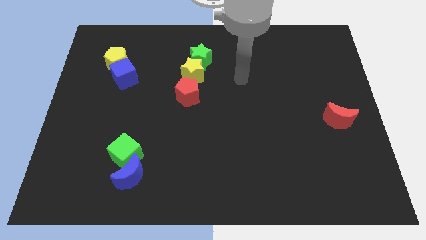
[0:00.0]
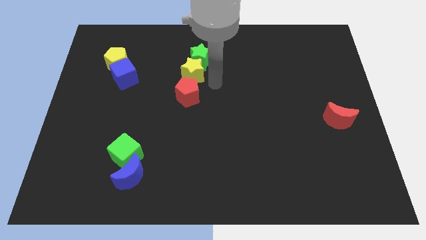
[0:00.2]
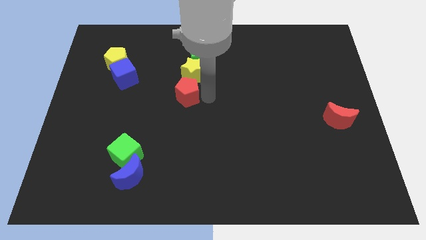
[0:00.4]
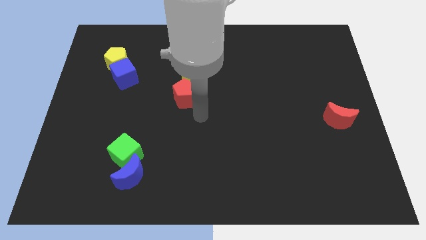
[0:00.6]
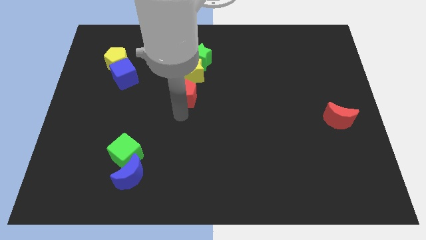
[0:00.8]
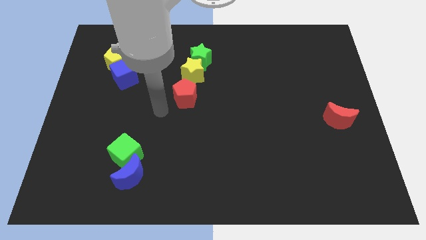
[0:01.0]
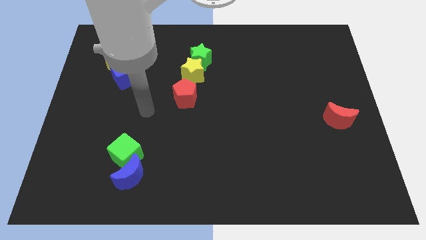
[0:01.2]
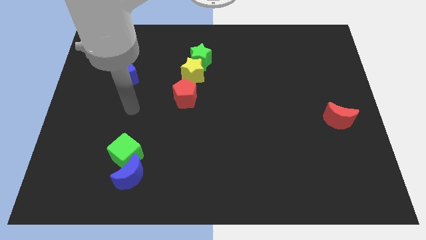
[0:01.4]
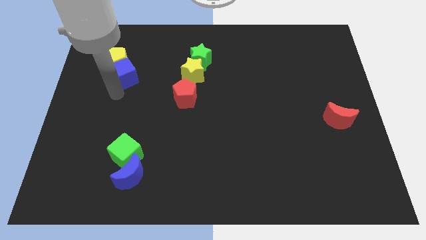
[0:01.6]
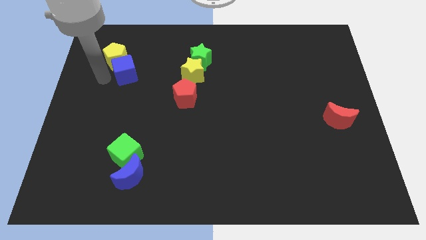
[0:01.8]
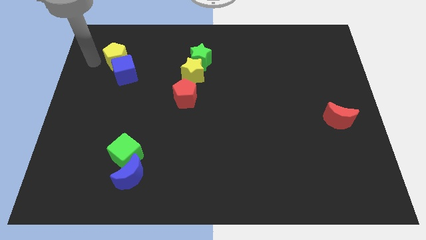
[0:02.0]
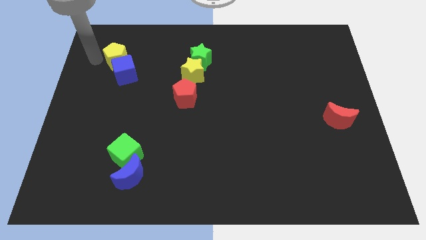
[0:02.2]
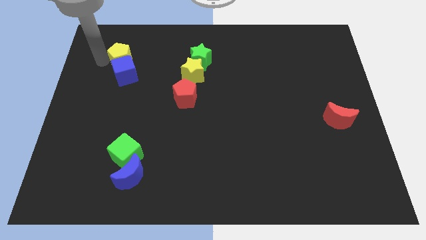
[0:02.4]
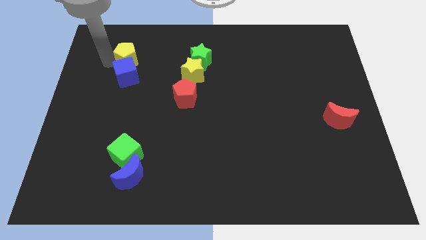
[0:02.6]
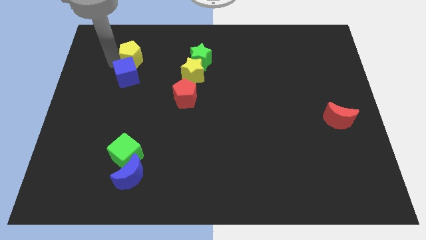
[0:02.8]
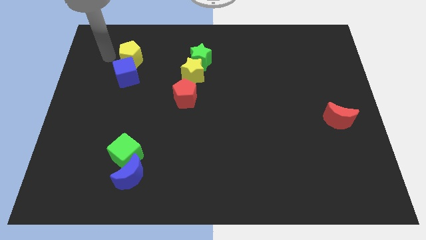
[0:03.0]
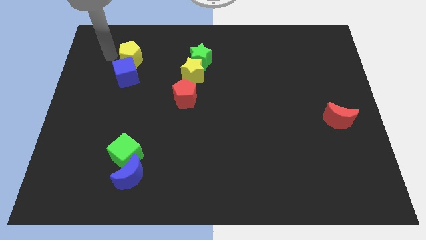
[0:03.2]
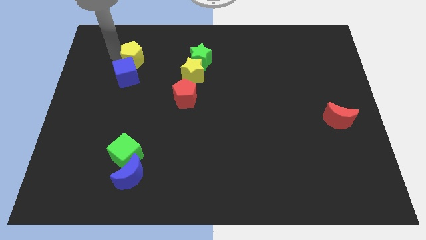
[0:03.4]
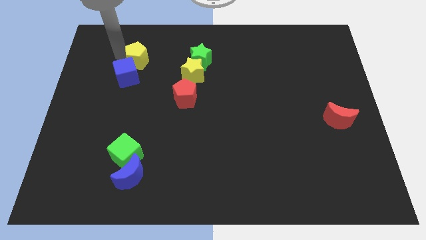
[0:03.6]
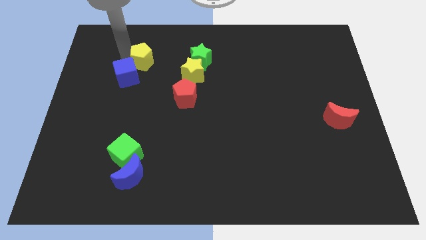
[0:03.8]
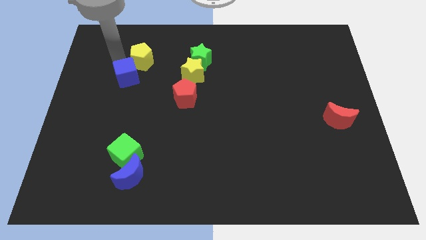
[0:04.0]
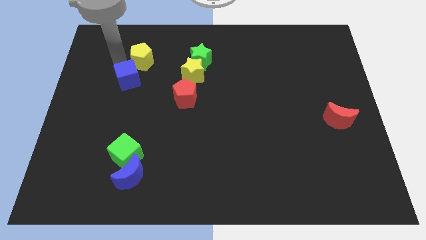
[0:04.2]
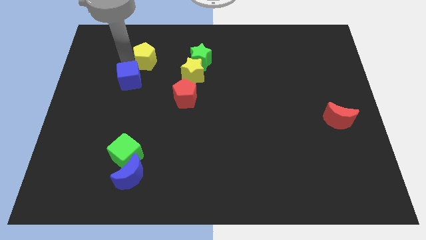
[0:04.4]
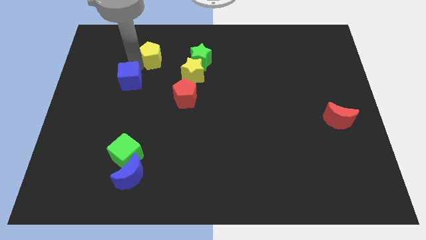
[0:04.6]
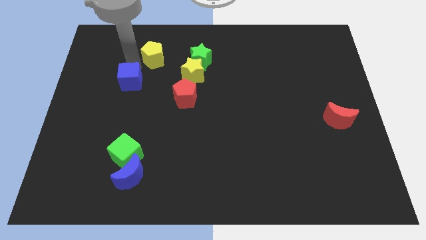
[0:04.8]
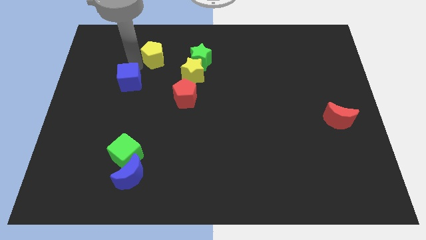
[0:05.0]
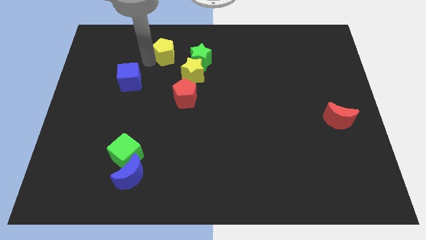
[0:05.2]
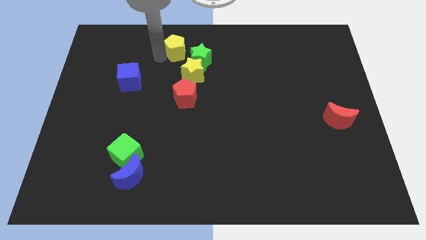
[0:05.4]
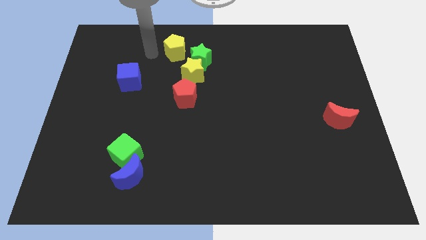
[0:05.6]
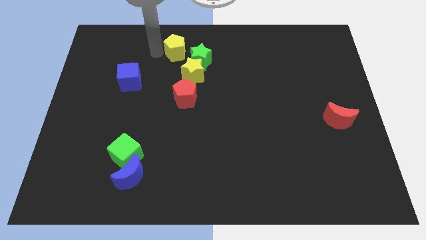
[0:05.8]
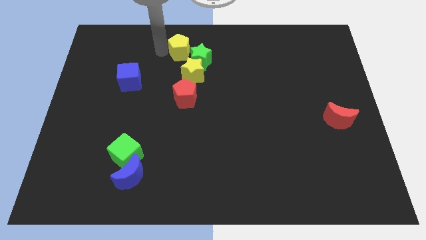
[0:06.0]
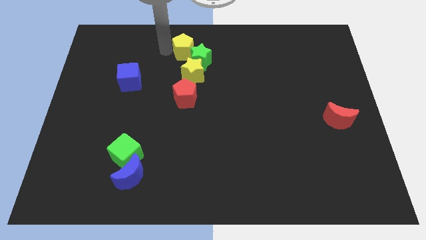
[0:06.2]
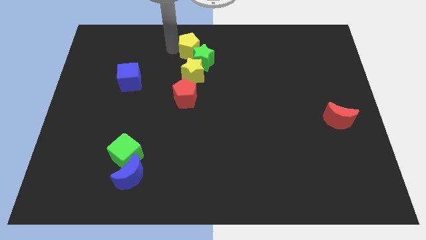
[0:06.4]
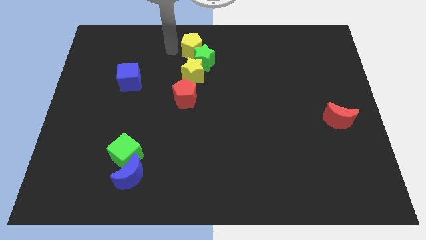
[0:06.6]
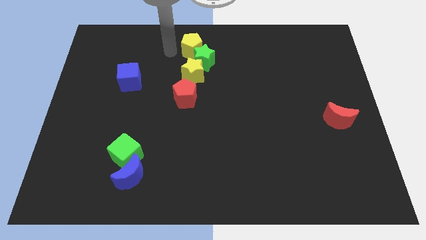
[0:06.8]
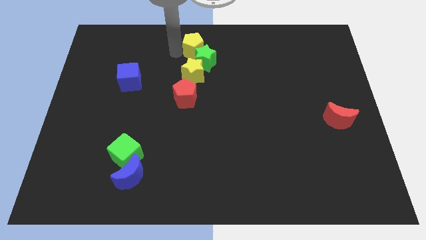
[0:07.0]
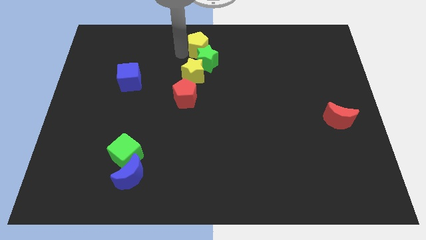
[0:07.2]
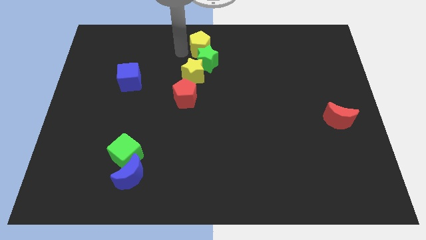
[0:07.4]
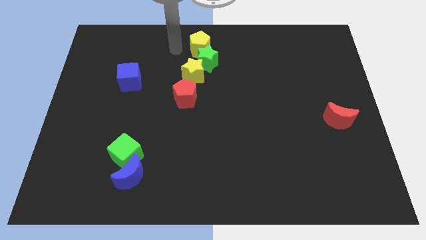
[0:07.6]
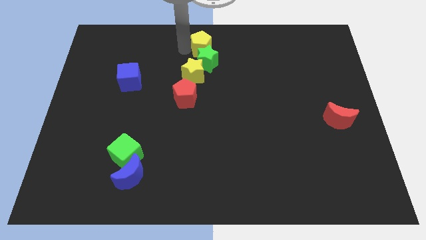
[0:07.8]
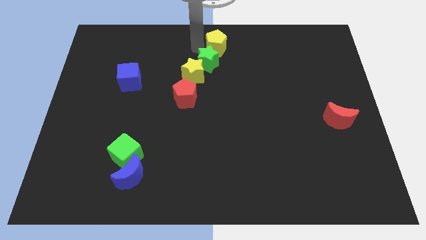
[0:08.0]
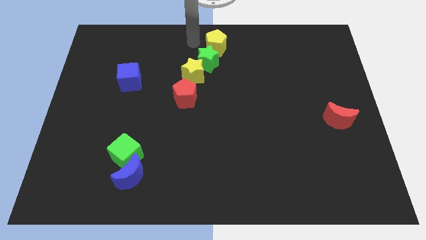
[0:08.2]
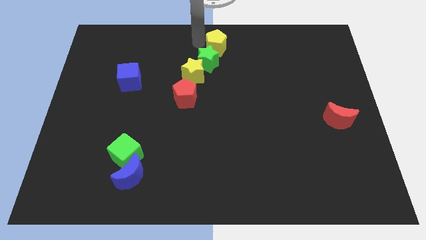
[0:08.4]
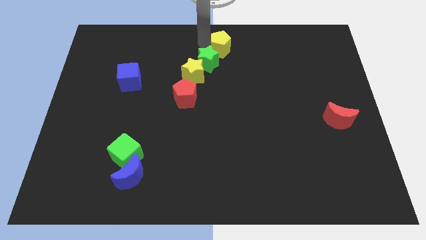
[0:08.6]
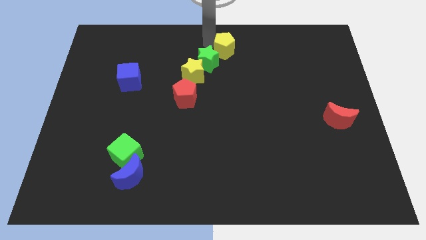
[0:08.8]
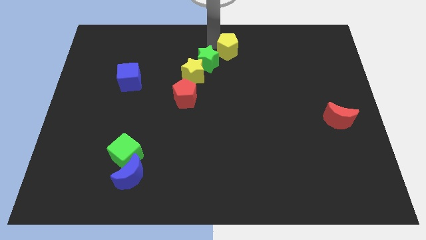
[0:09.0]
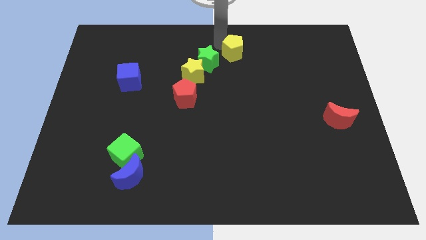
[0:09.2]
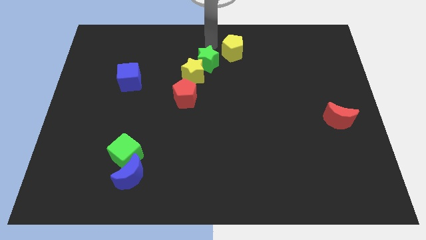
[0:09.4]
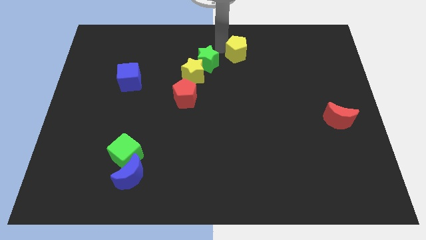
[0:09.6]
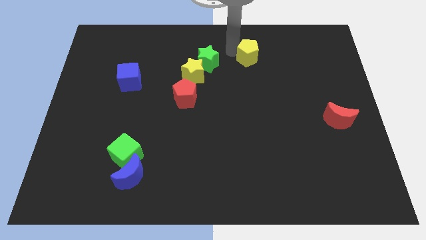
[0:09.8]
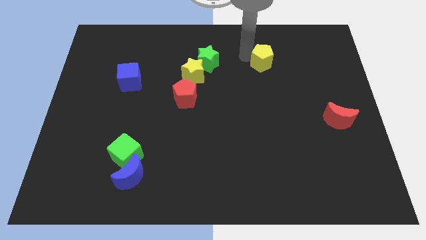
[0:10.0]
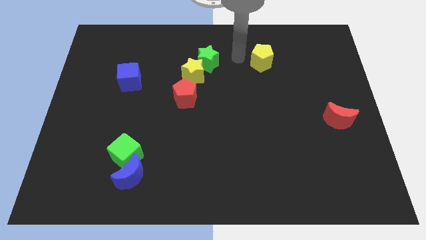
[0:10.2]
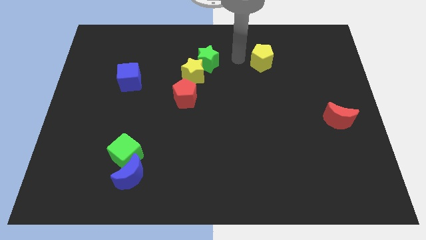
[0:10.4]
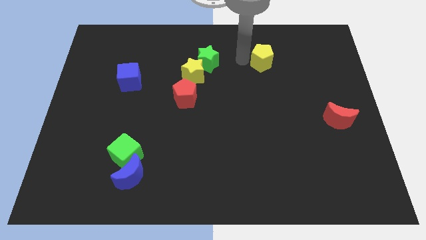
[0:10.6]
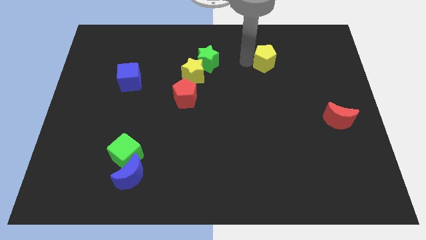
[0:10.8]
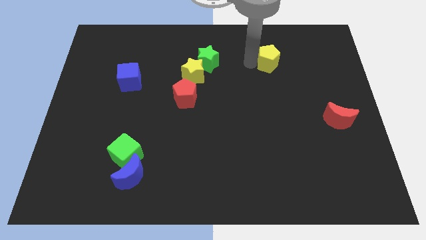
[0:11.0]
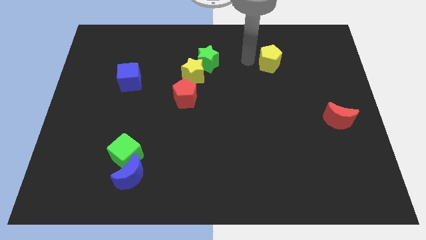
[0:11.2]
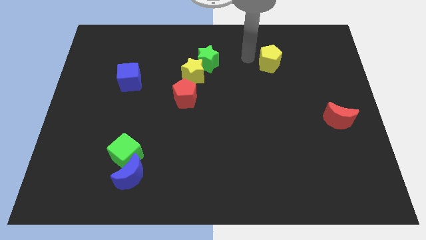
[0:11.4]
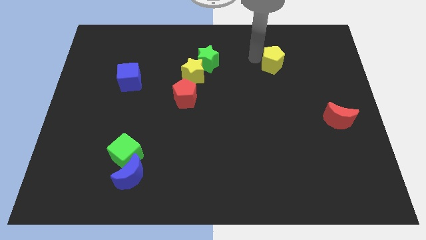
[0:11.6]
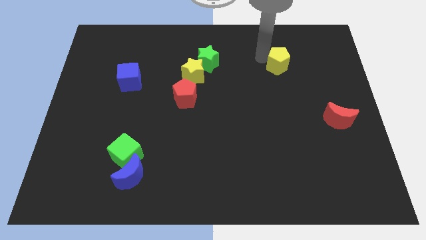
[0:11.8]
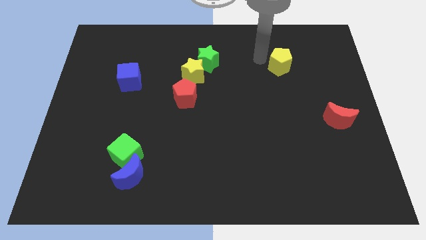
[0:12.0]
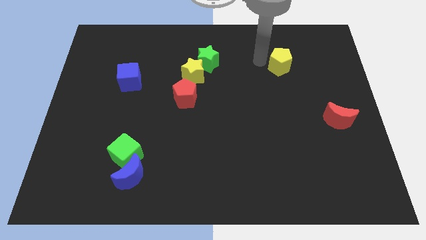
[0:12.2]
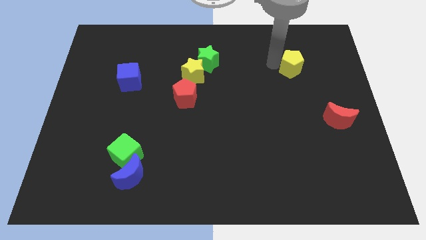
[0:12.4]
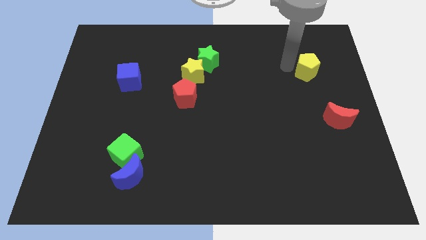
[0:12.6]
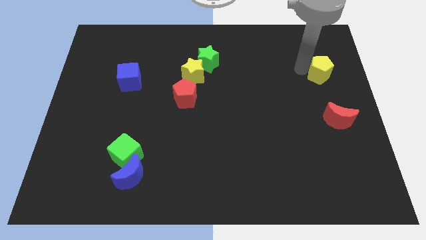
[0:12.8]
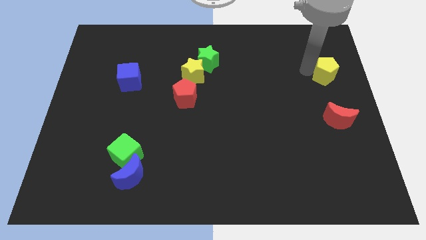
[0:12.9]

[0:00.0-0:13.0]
put the yellow pentagon to the right side
